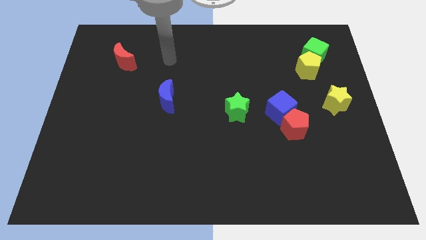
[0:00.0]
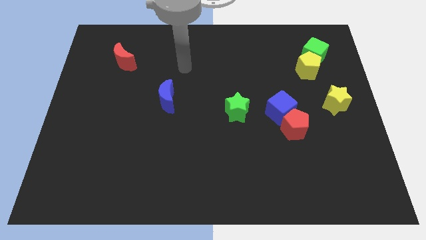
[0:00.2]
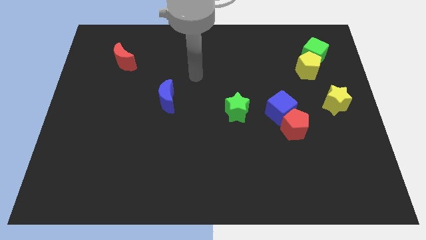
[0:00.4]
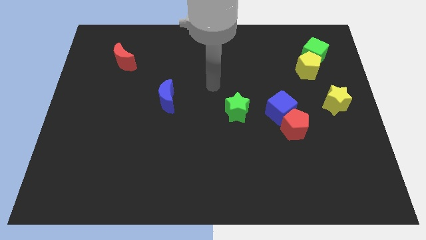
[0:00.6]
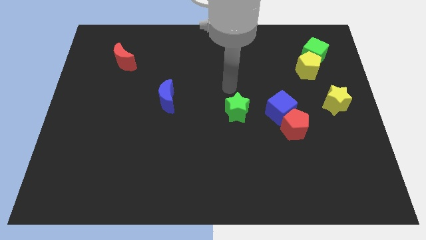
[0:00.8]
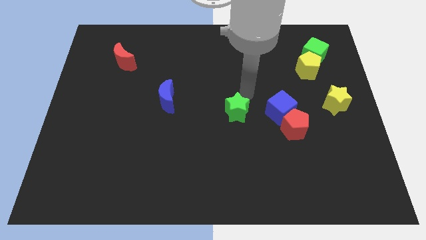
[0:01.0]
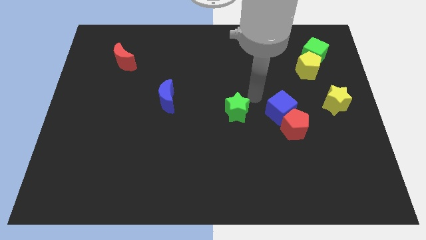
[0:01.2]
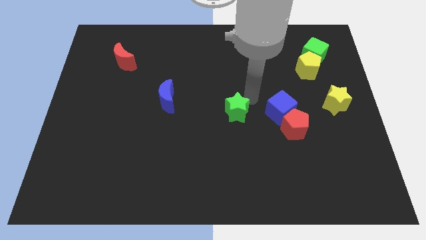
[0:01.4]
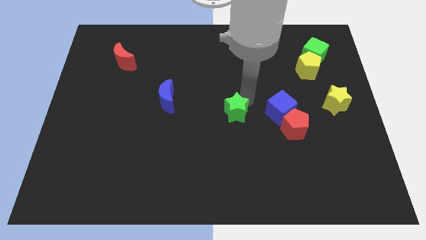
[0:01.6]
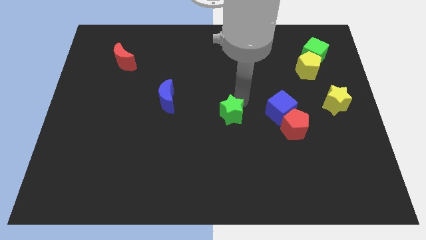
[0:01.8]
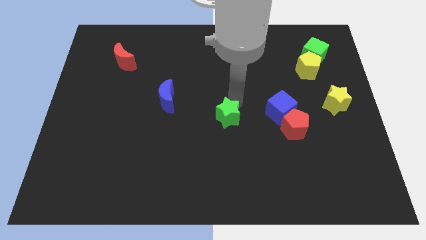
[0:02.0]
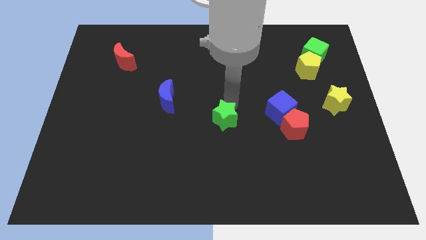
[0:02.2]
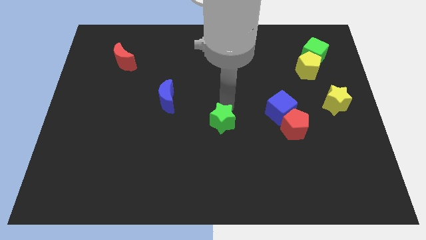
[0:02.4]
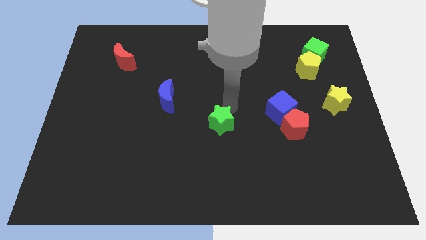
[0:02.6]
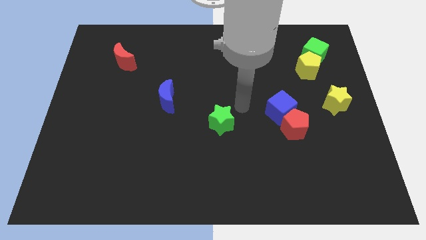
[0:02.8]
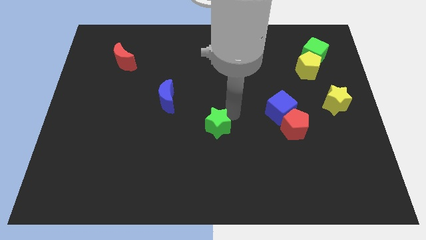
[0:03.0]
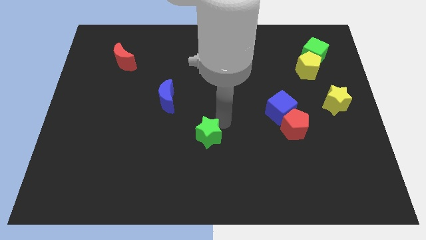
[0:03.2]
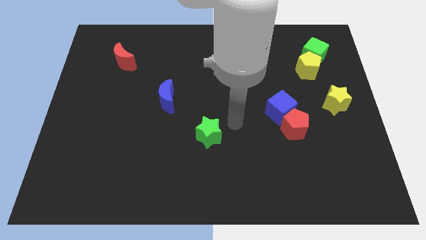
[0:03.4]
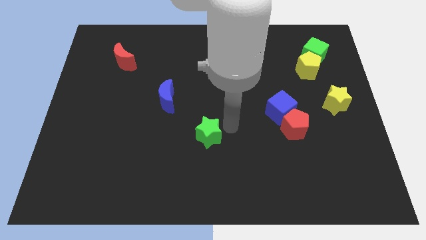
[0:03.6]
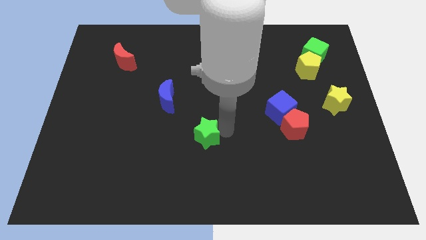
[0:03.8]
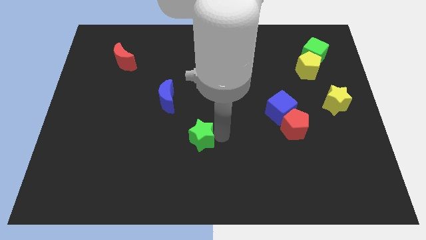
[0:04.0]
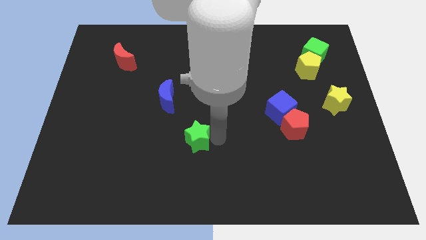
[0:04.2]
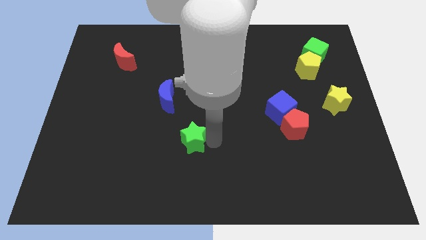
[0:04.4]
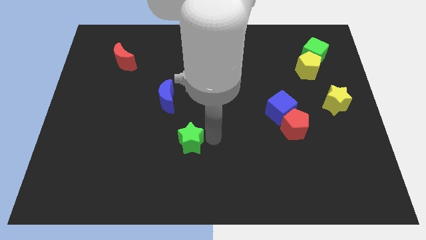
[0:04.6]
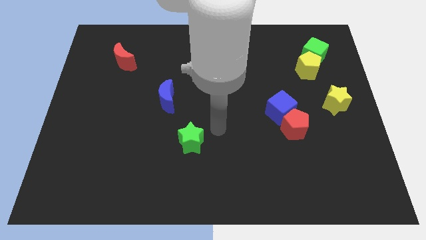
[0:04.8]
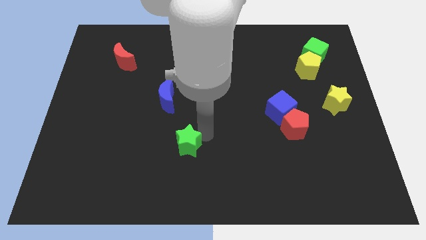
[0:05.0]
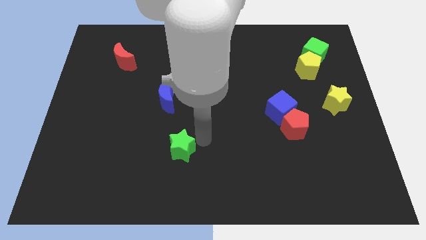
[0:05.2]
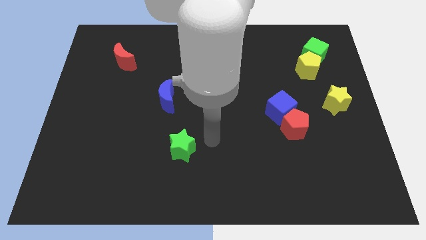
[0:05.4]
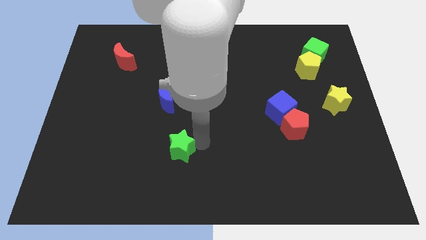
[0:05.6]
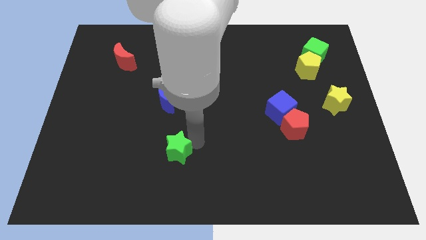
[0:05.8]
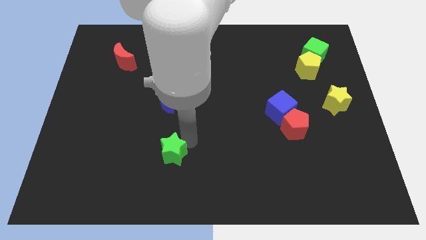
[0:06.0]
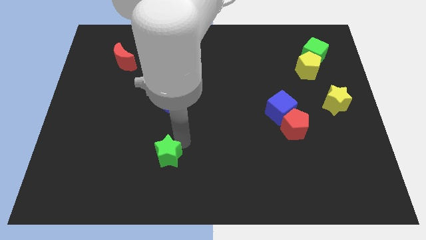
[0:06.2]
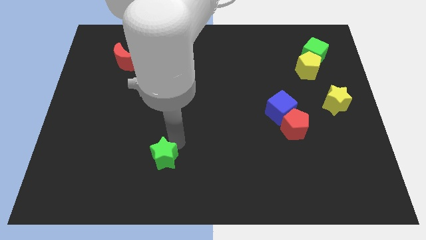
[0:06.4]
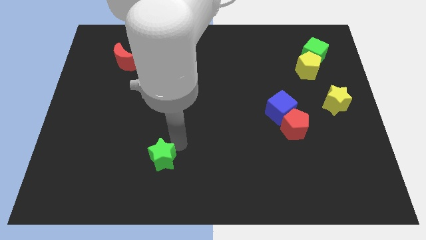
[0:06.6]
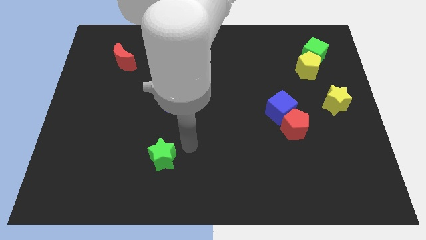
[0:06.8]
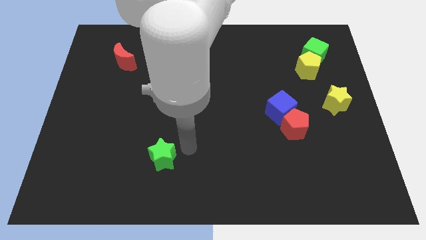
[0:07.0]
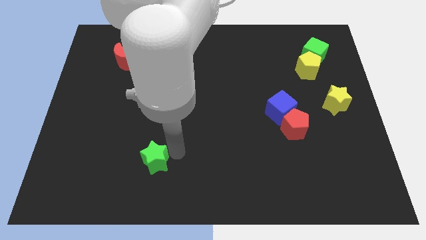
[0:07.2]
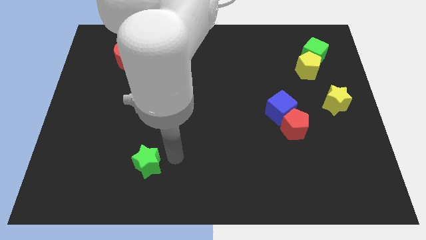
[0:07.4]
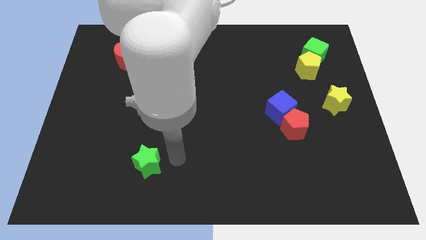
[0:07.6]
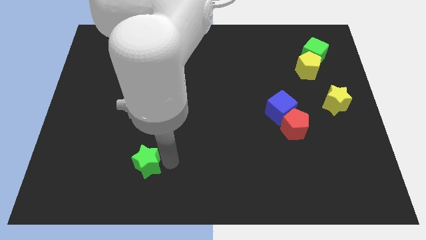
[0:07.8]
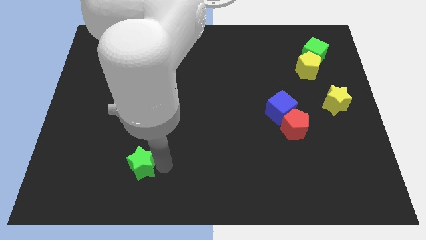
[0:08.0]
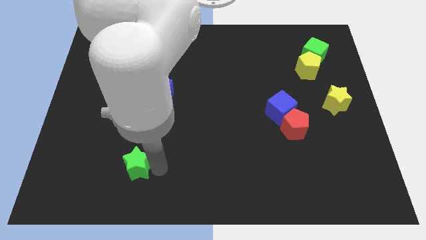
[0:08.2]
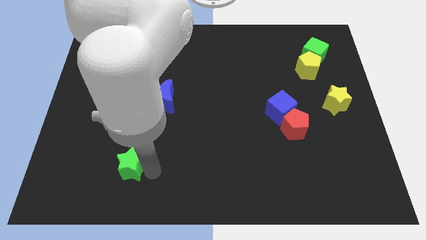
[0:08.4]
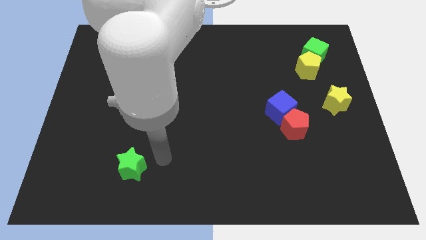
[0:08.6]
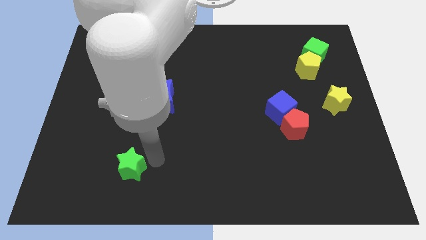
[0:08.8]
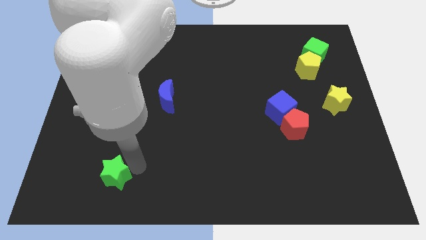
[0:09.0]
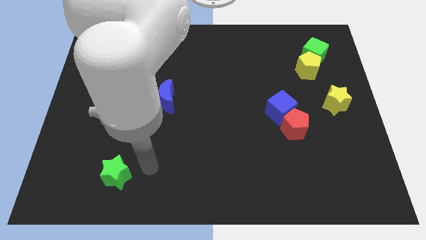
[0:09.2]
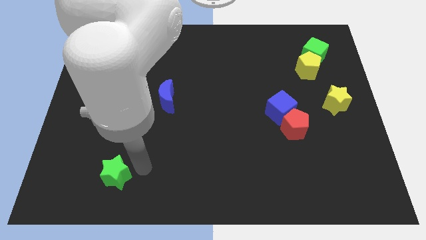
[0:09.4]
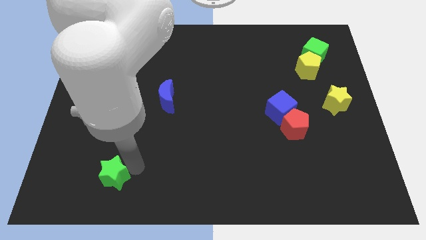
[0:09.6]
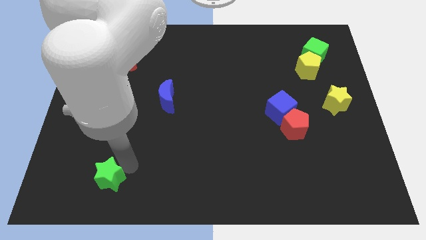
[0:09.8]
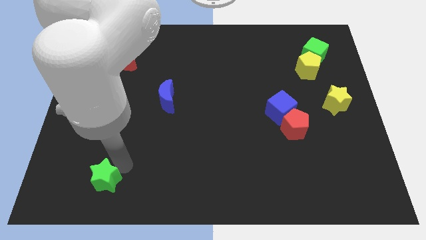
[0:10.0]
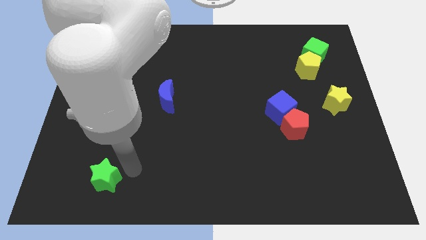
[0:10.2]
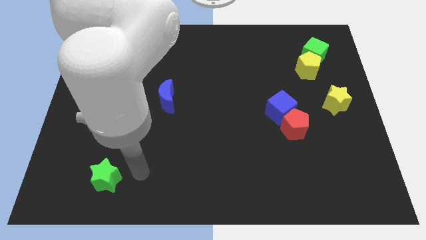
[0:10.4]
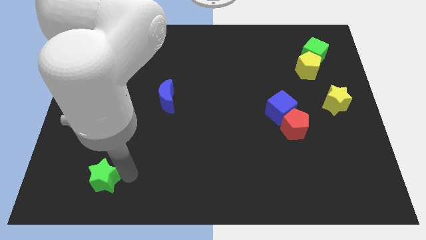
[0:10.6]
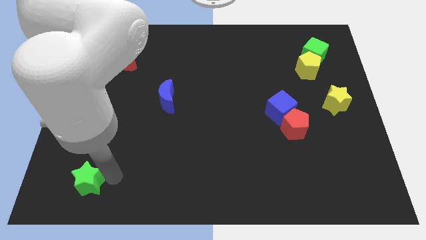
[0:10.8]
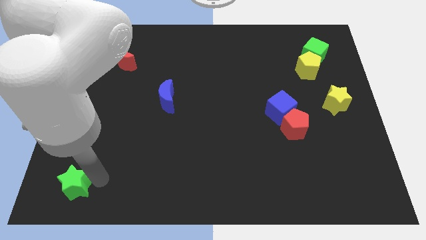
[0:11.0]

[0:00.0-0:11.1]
move the green star to the lower left corner

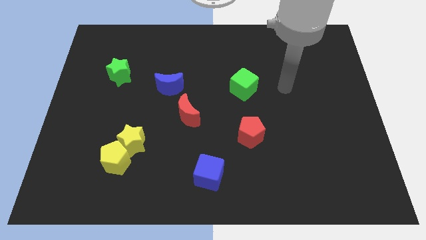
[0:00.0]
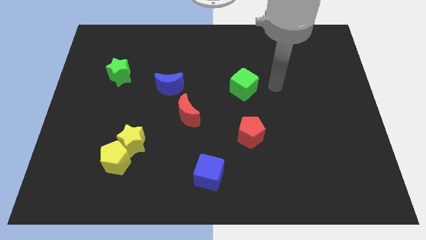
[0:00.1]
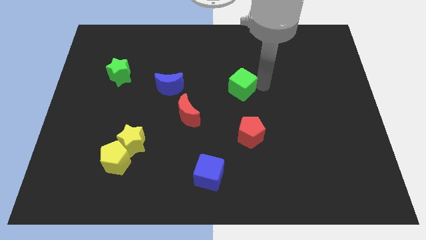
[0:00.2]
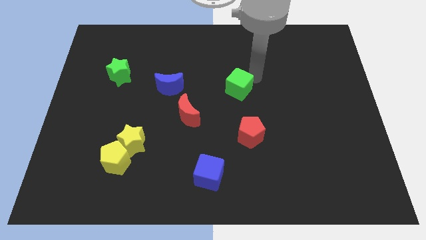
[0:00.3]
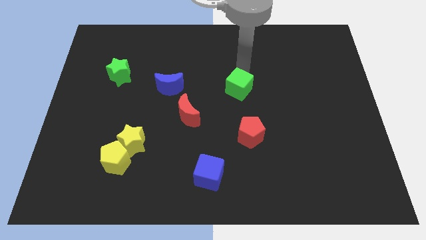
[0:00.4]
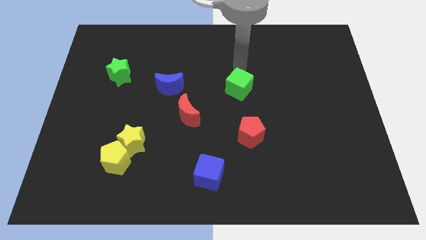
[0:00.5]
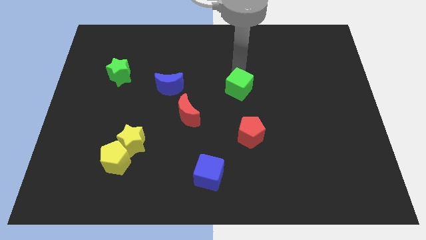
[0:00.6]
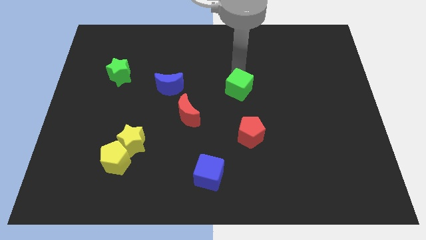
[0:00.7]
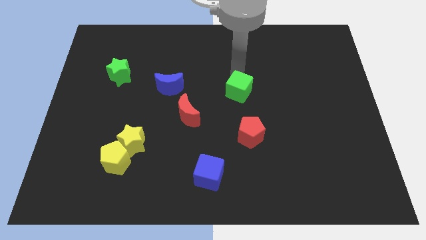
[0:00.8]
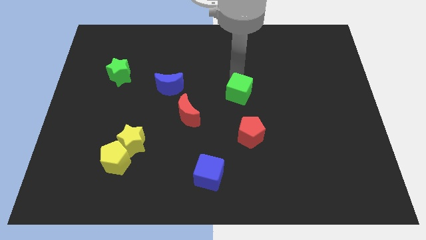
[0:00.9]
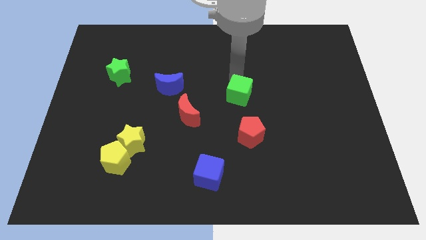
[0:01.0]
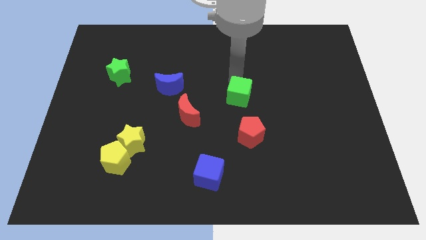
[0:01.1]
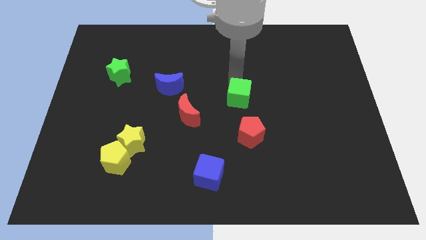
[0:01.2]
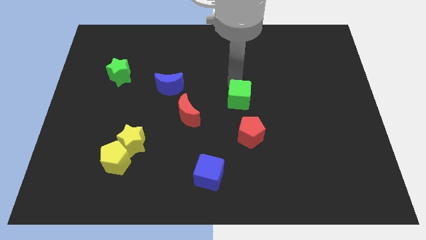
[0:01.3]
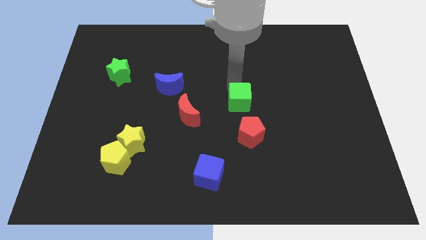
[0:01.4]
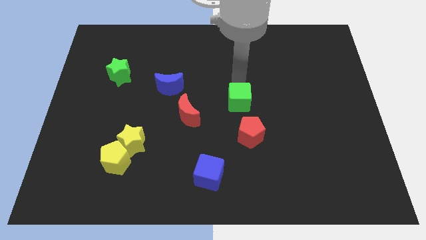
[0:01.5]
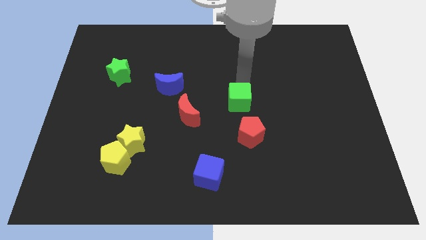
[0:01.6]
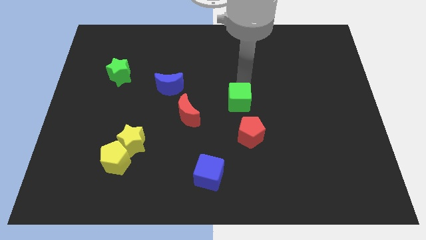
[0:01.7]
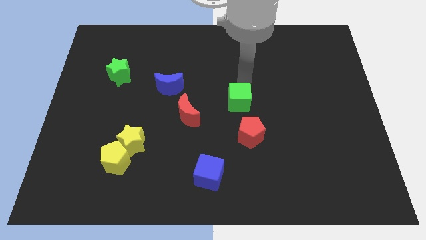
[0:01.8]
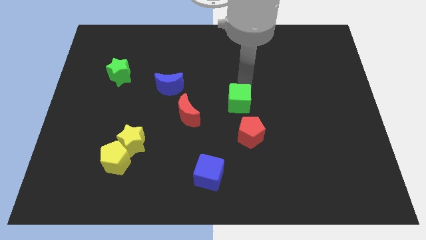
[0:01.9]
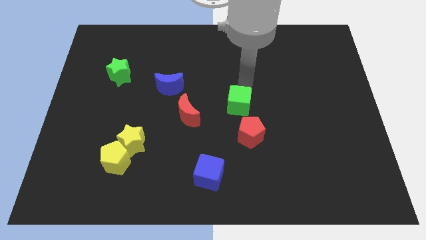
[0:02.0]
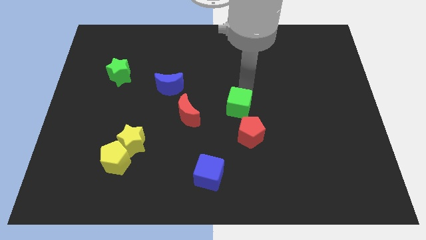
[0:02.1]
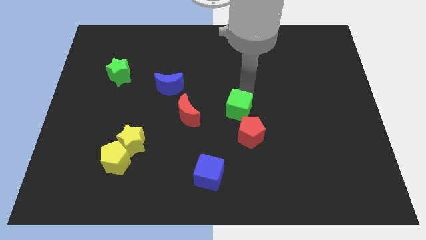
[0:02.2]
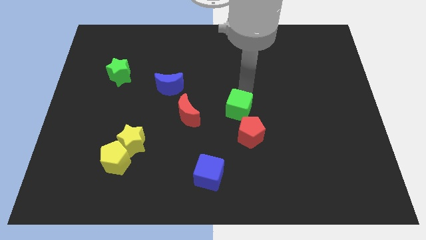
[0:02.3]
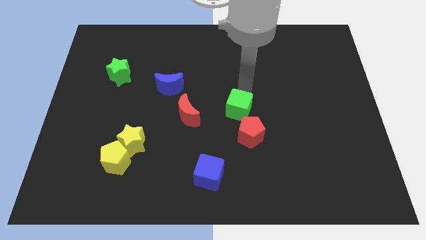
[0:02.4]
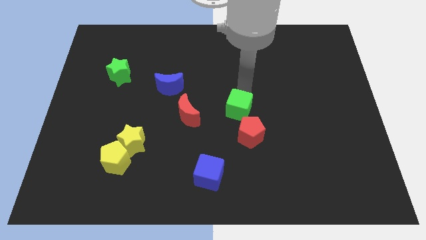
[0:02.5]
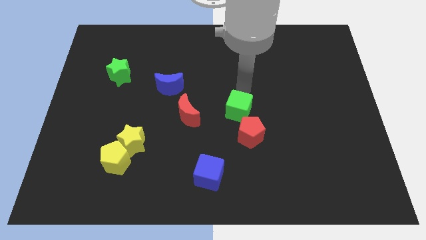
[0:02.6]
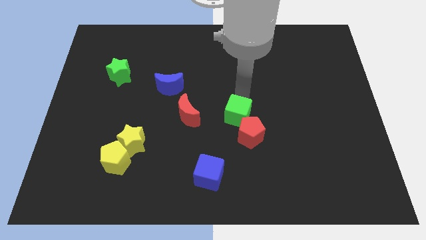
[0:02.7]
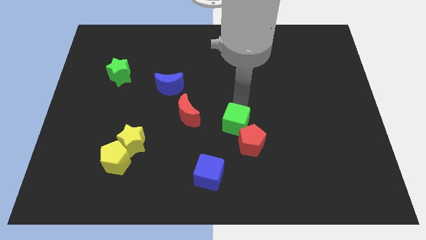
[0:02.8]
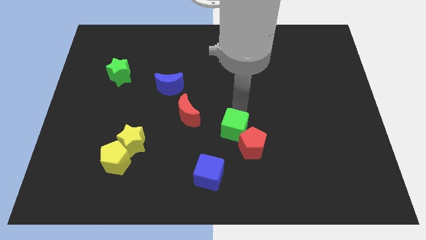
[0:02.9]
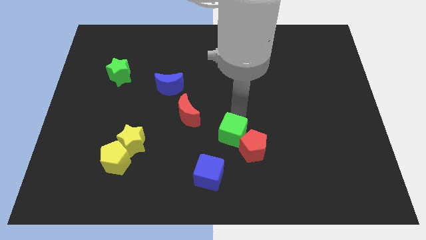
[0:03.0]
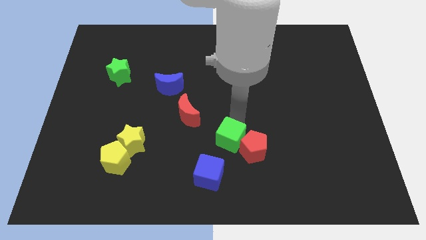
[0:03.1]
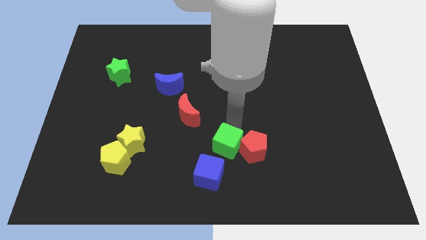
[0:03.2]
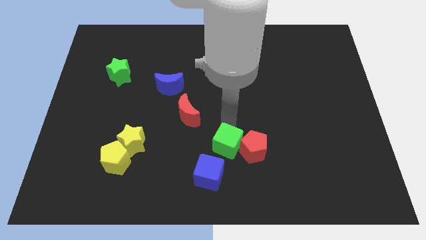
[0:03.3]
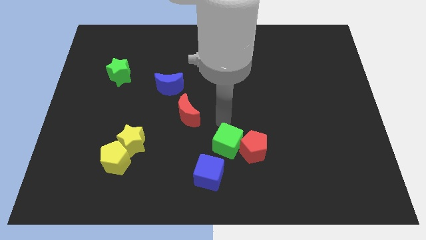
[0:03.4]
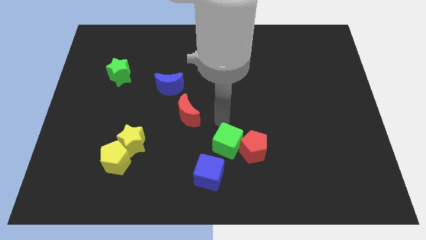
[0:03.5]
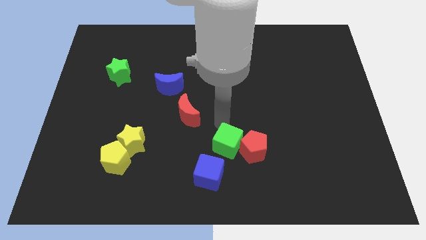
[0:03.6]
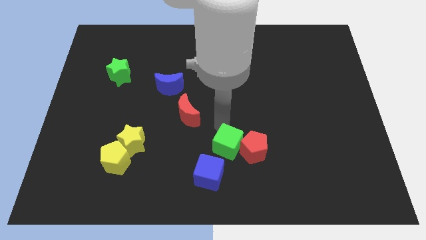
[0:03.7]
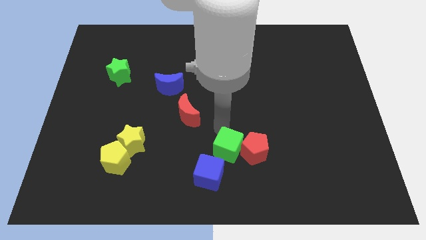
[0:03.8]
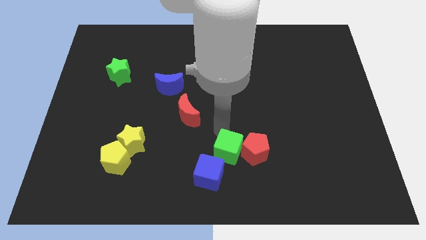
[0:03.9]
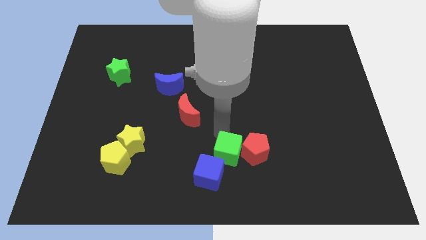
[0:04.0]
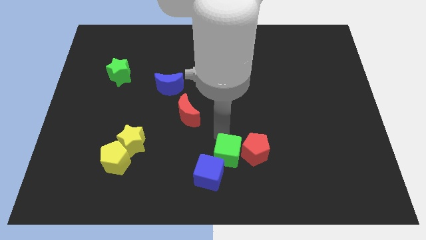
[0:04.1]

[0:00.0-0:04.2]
slide the green cube to the bottom side
